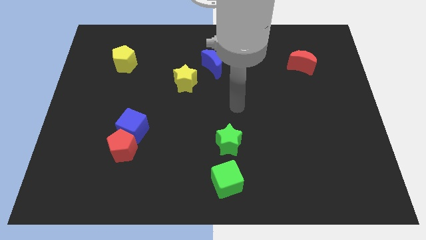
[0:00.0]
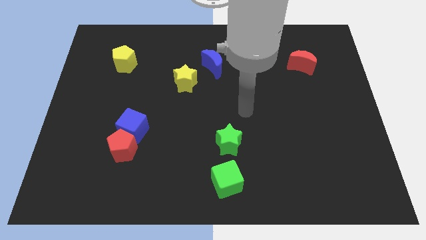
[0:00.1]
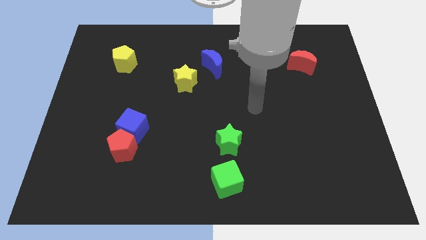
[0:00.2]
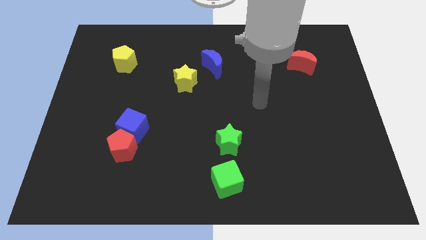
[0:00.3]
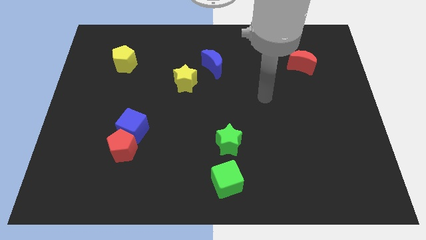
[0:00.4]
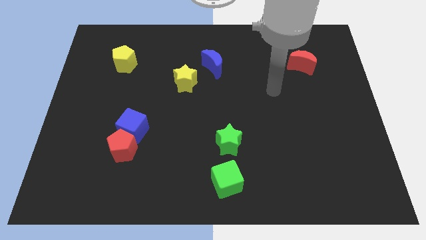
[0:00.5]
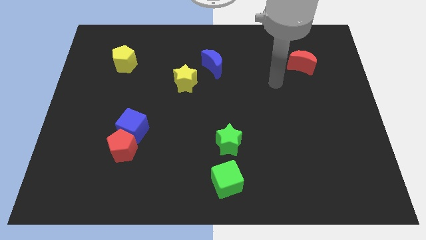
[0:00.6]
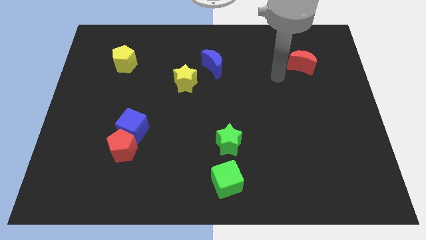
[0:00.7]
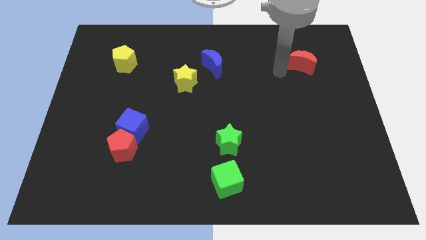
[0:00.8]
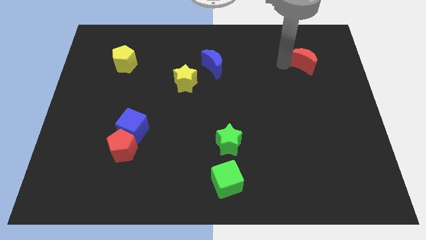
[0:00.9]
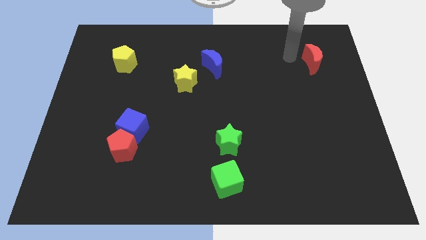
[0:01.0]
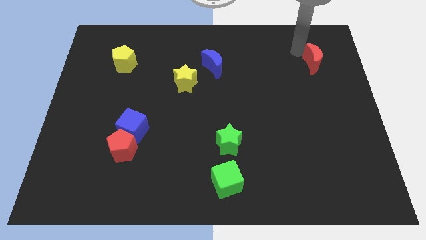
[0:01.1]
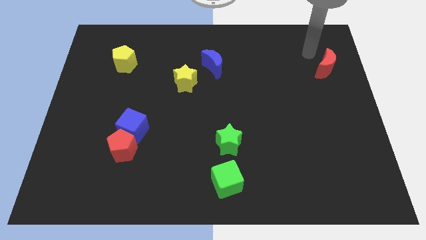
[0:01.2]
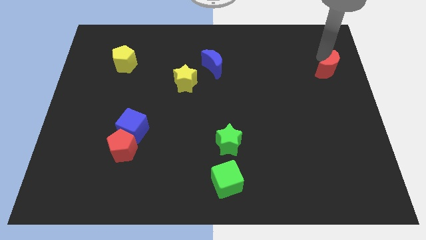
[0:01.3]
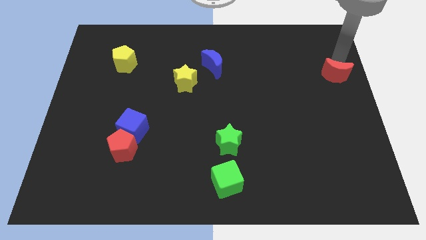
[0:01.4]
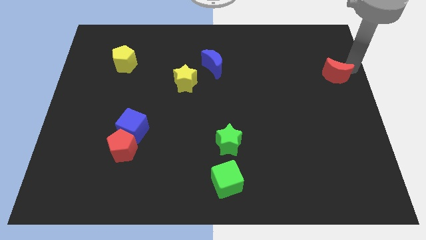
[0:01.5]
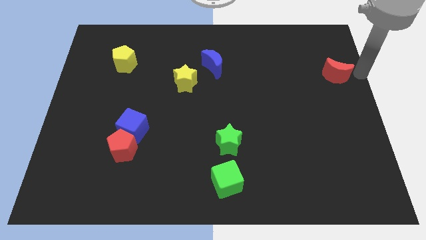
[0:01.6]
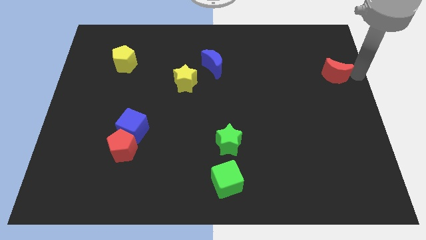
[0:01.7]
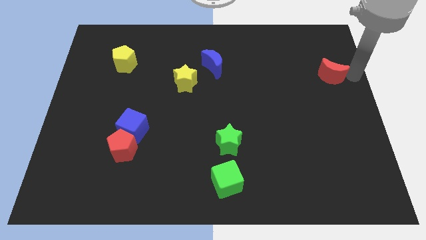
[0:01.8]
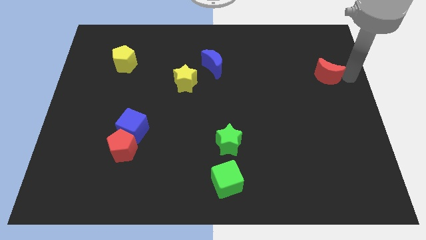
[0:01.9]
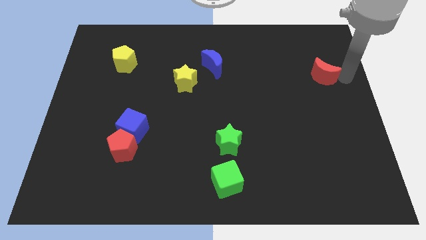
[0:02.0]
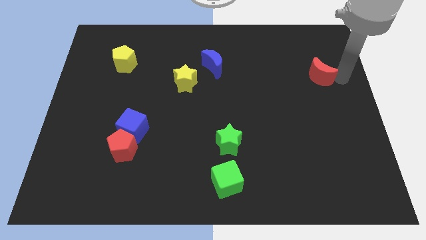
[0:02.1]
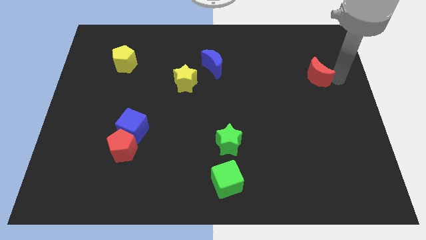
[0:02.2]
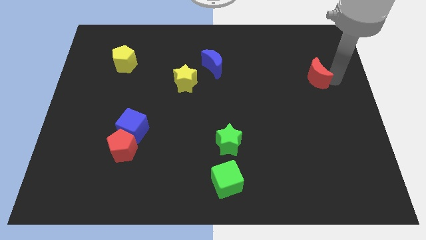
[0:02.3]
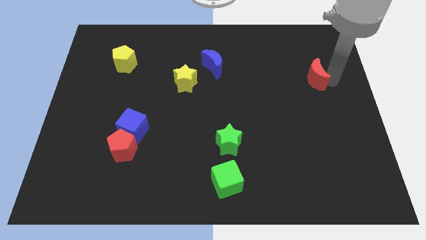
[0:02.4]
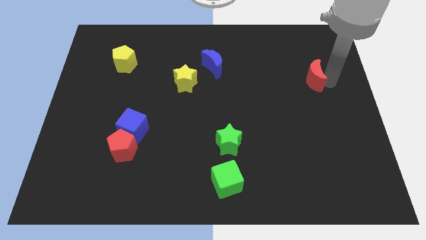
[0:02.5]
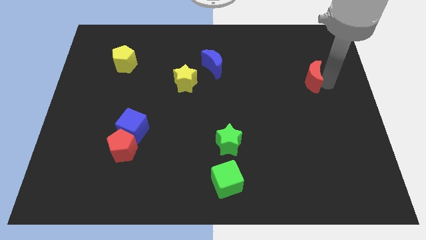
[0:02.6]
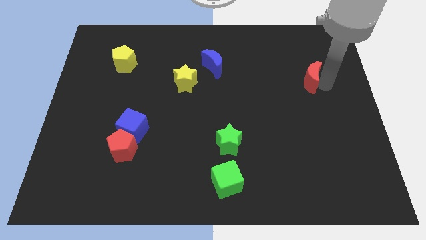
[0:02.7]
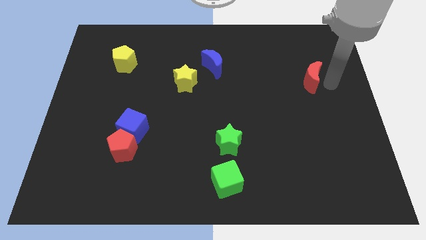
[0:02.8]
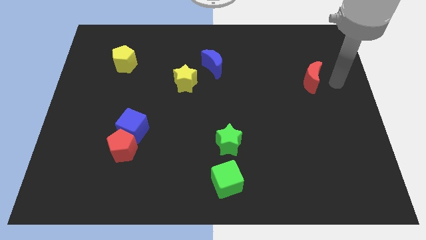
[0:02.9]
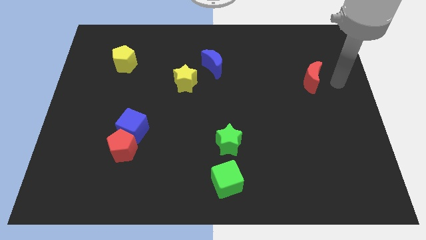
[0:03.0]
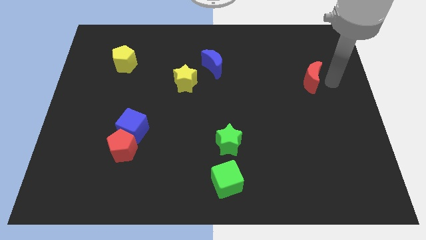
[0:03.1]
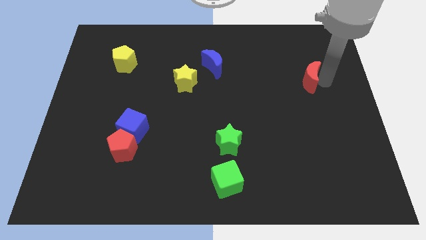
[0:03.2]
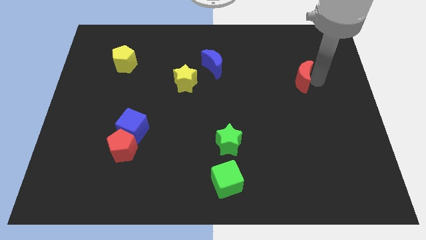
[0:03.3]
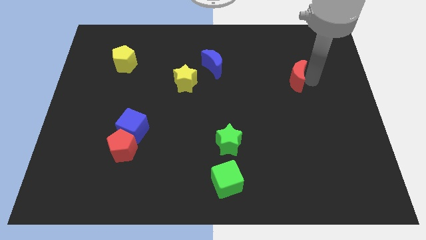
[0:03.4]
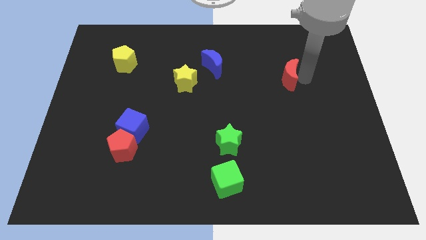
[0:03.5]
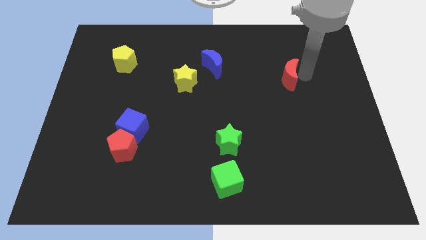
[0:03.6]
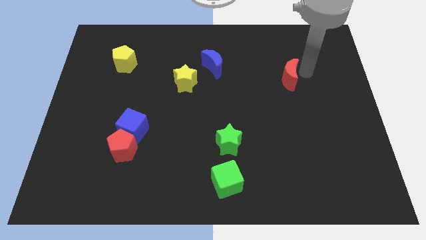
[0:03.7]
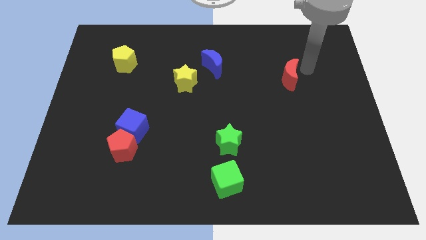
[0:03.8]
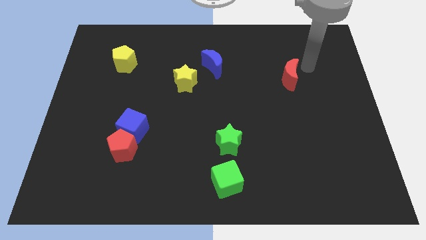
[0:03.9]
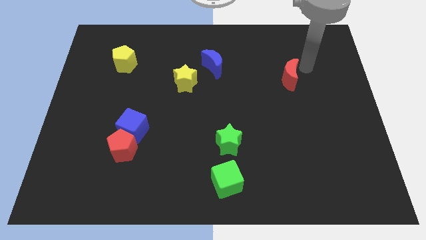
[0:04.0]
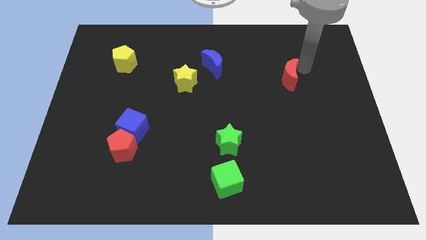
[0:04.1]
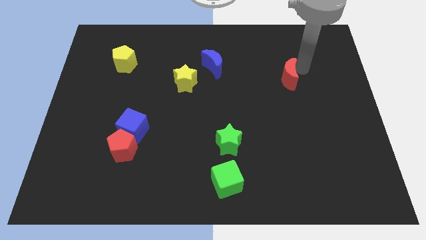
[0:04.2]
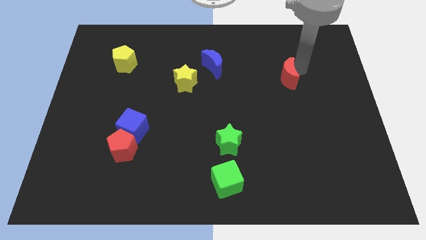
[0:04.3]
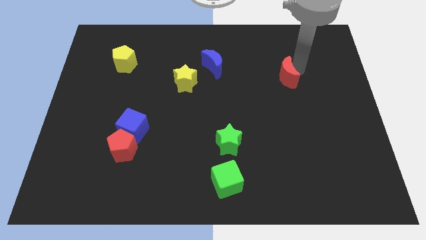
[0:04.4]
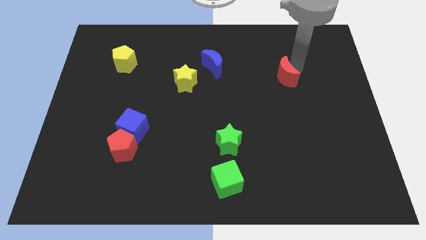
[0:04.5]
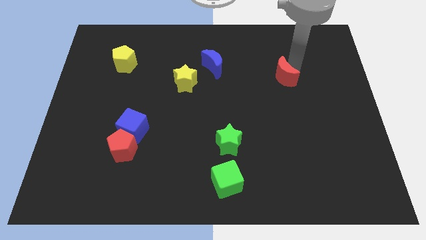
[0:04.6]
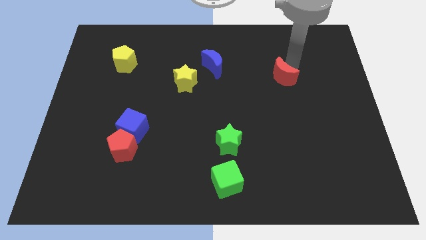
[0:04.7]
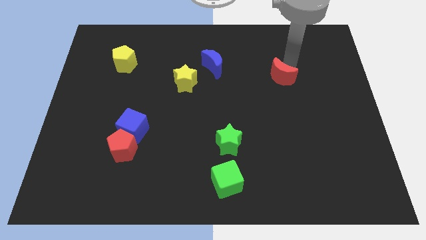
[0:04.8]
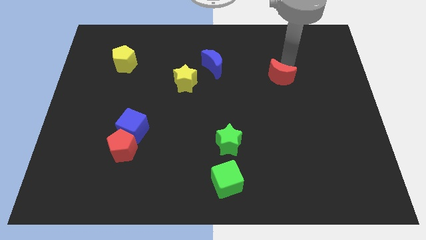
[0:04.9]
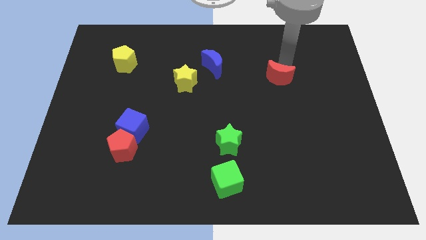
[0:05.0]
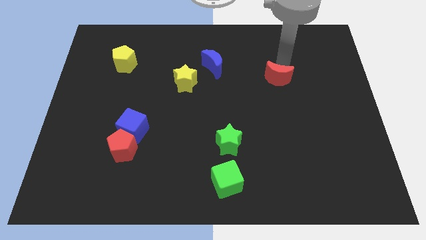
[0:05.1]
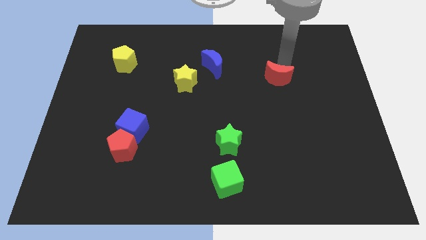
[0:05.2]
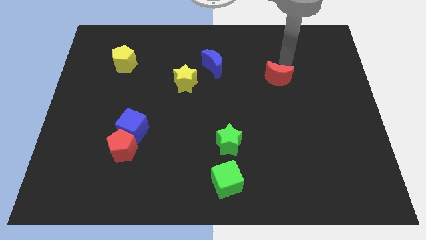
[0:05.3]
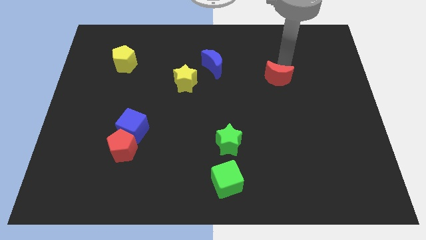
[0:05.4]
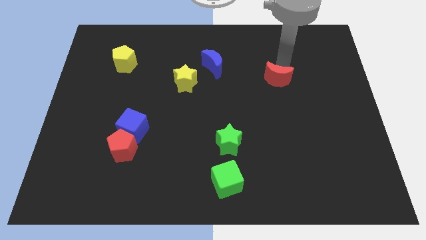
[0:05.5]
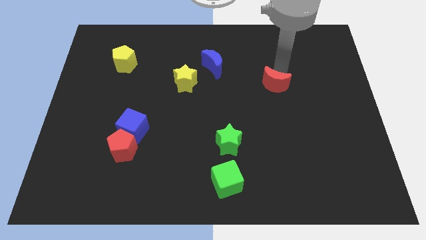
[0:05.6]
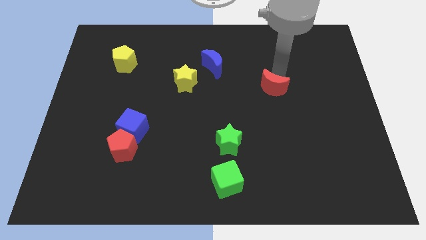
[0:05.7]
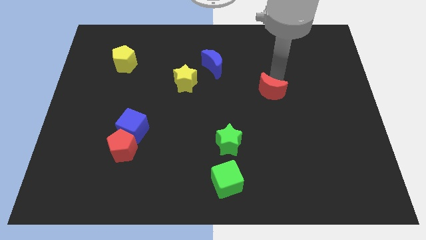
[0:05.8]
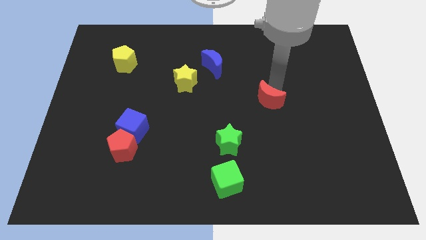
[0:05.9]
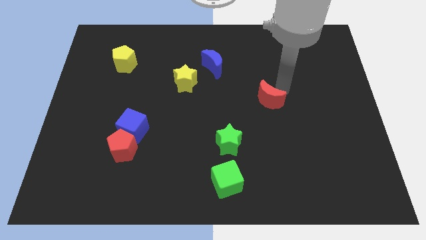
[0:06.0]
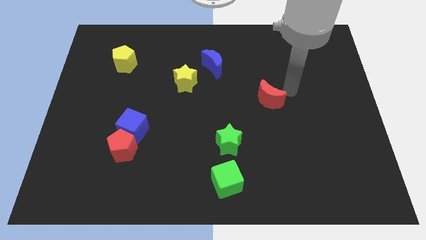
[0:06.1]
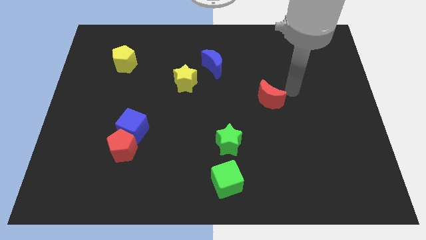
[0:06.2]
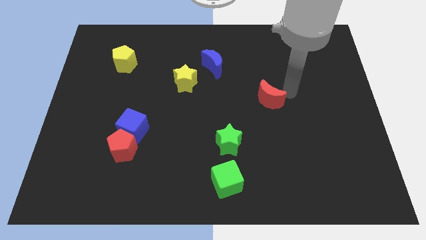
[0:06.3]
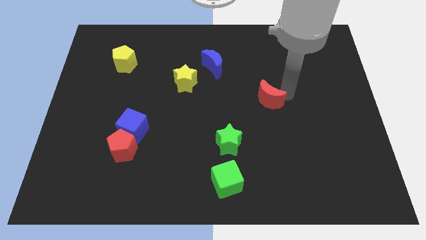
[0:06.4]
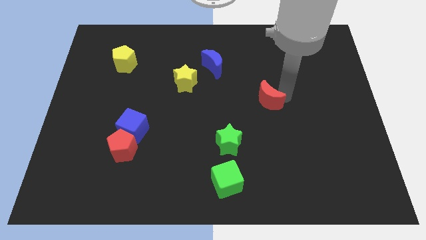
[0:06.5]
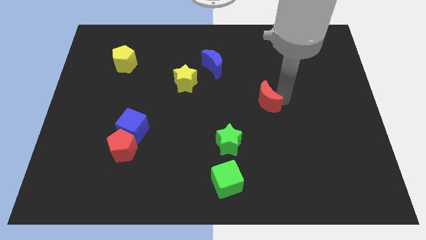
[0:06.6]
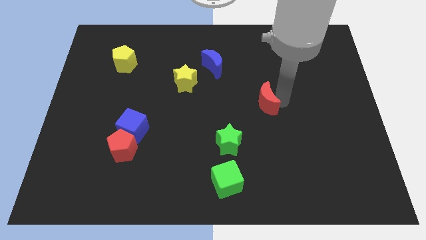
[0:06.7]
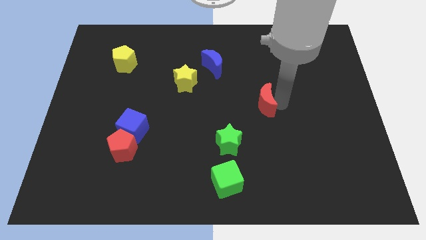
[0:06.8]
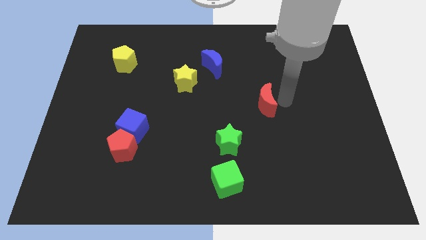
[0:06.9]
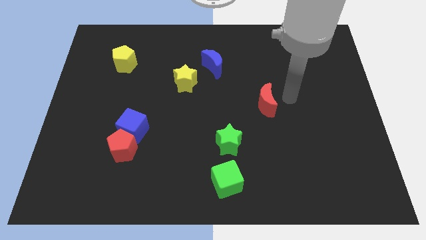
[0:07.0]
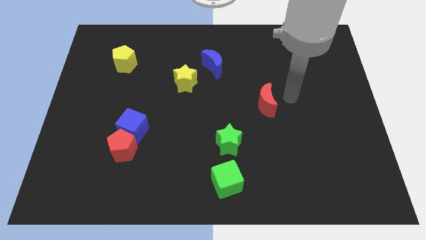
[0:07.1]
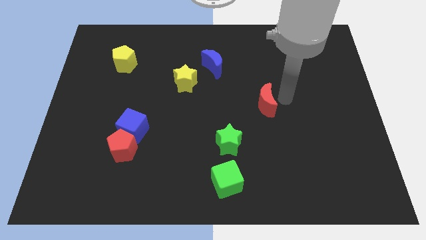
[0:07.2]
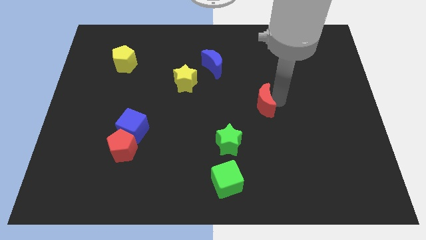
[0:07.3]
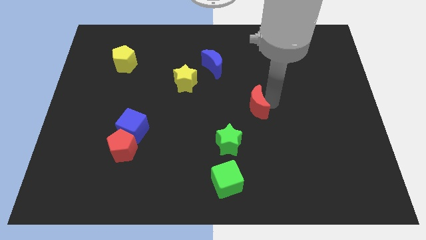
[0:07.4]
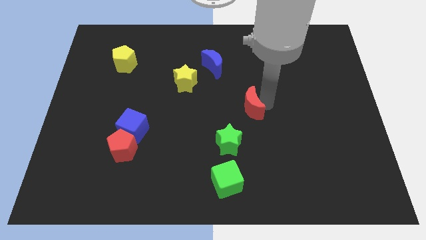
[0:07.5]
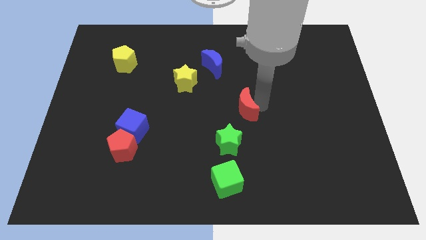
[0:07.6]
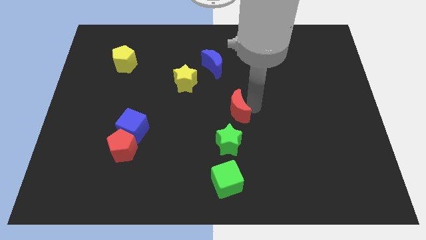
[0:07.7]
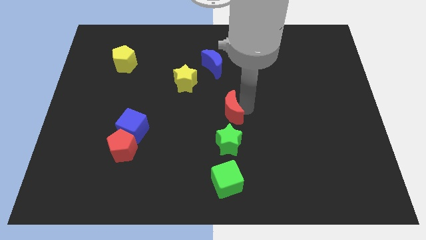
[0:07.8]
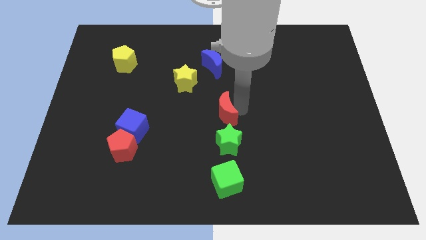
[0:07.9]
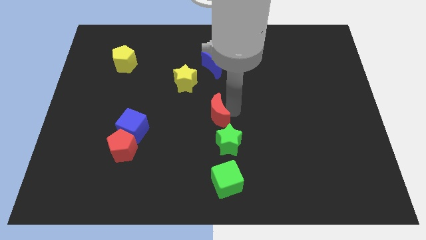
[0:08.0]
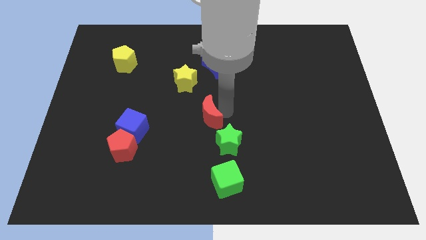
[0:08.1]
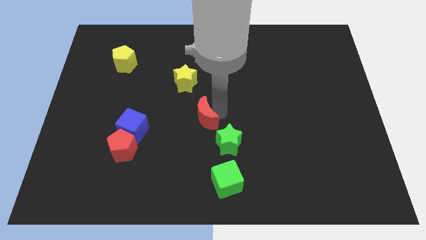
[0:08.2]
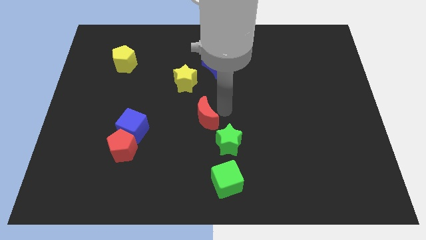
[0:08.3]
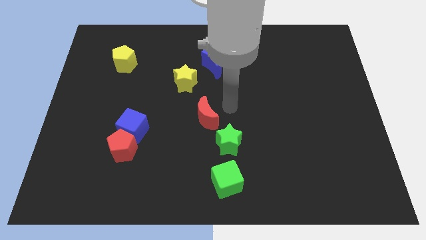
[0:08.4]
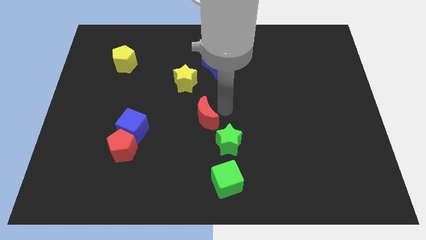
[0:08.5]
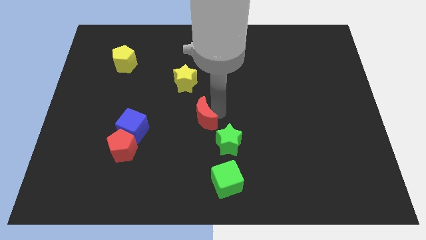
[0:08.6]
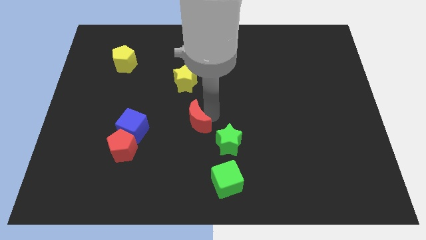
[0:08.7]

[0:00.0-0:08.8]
put the red moon right of the blue cube
